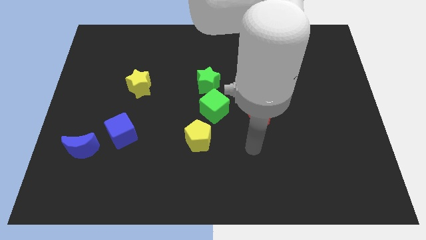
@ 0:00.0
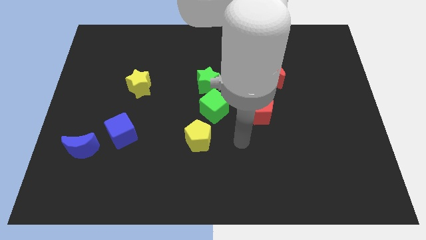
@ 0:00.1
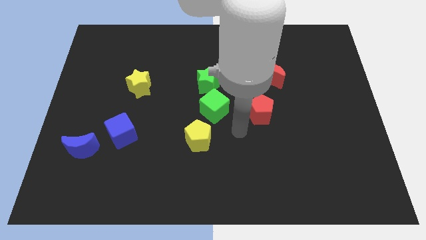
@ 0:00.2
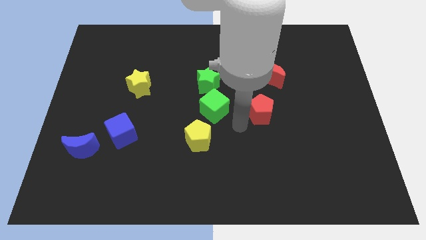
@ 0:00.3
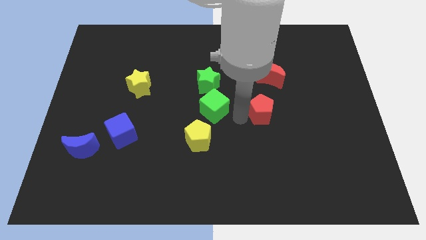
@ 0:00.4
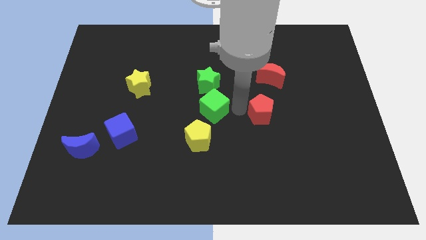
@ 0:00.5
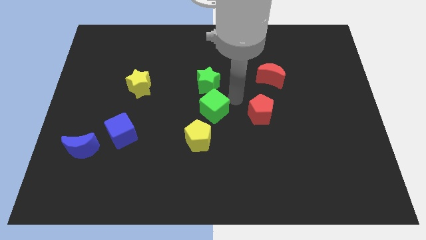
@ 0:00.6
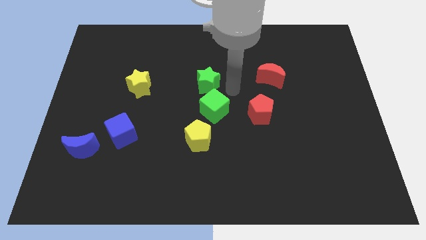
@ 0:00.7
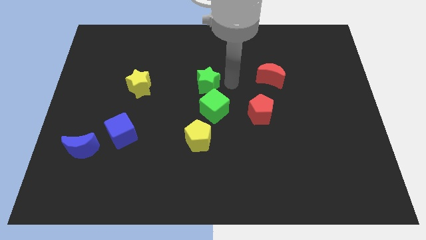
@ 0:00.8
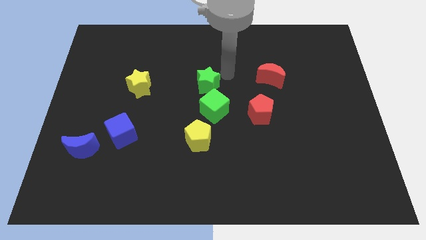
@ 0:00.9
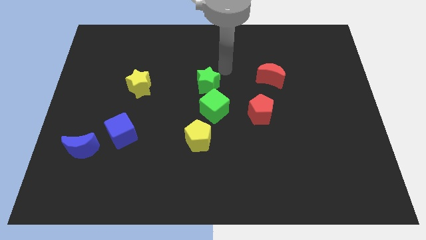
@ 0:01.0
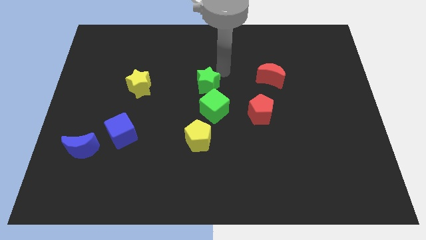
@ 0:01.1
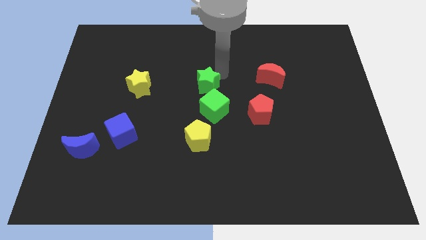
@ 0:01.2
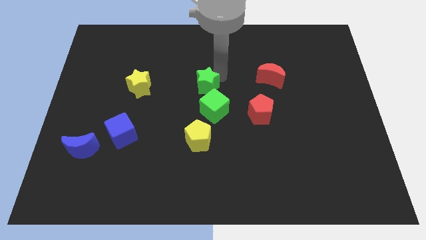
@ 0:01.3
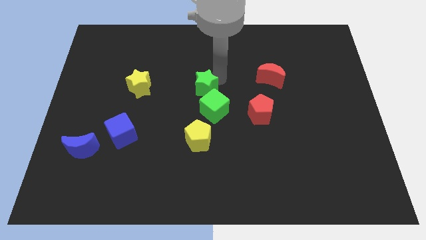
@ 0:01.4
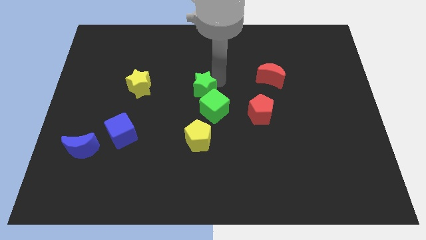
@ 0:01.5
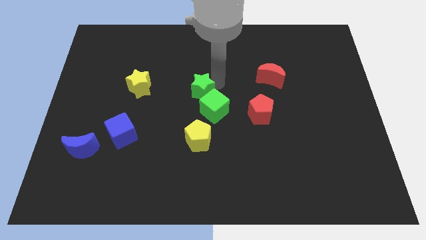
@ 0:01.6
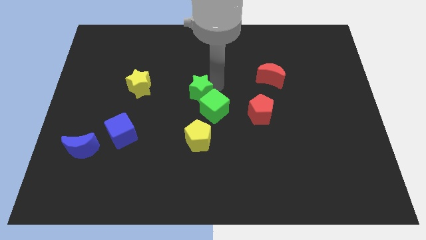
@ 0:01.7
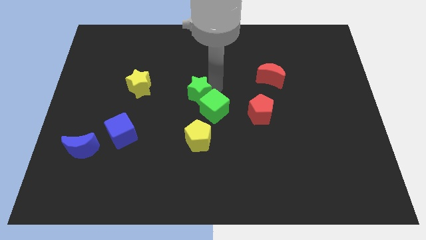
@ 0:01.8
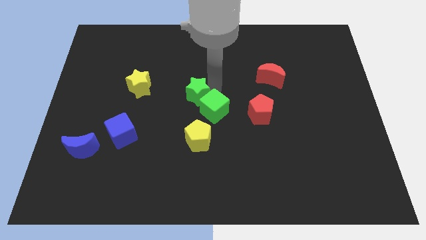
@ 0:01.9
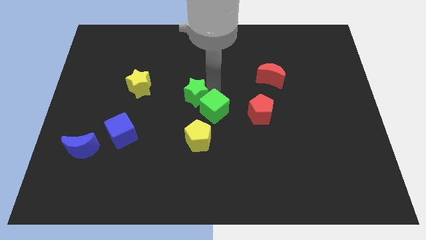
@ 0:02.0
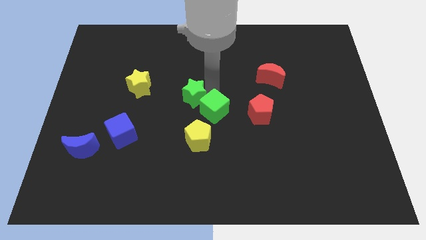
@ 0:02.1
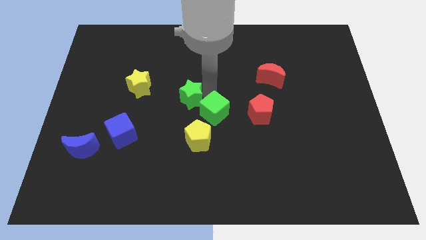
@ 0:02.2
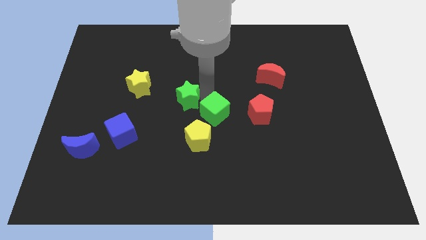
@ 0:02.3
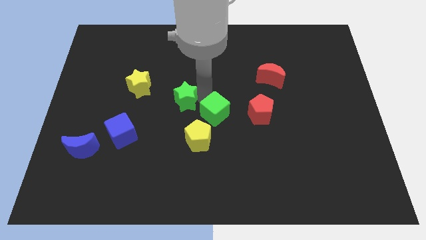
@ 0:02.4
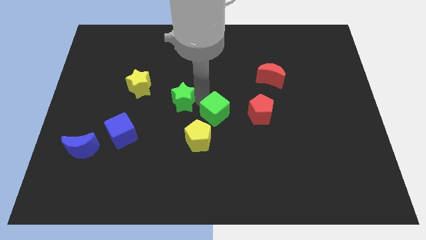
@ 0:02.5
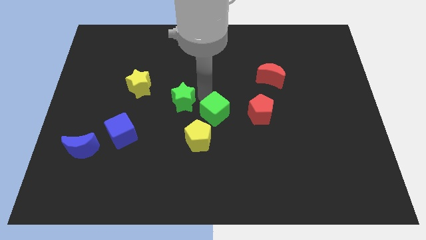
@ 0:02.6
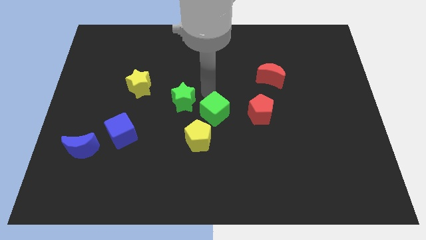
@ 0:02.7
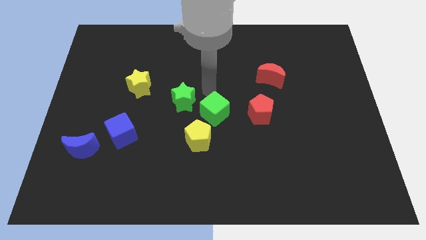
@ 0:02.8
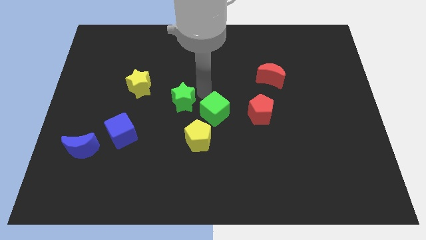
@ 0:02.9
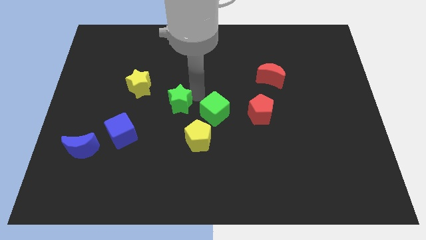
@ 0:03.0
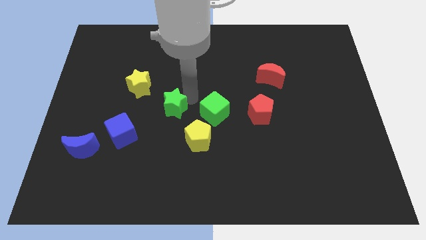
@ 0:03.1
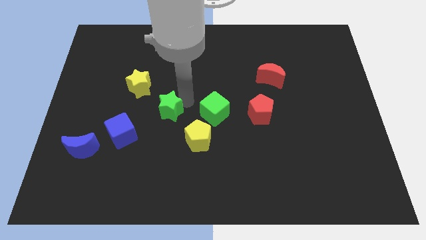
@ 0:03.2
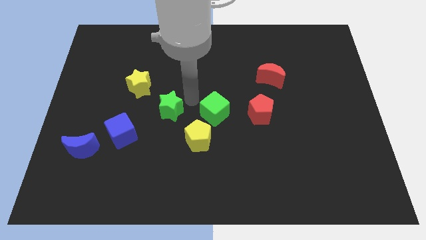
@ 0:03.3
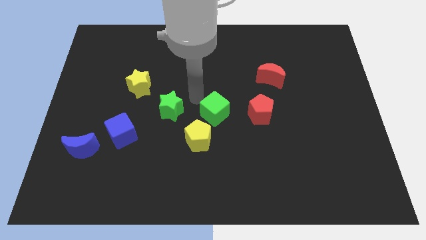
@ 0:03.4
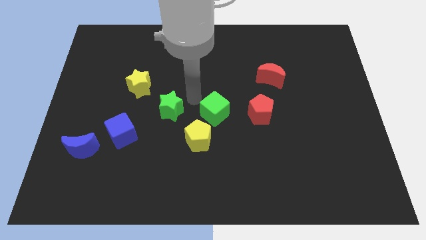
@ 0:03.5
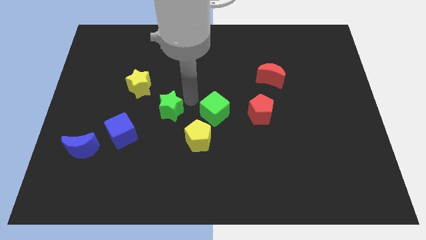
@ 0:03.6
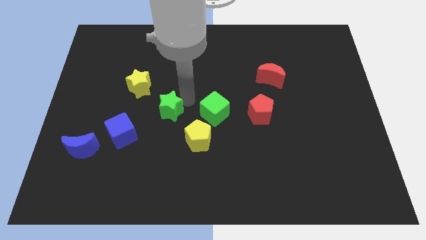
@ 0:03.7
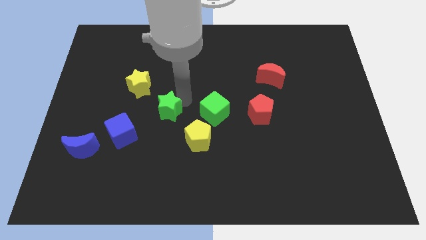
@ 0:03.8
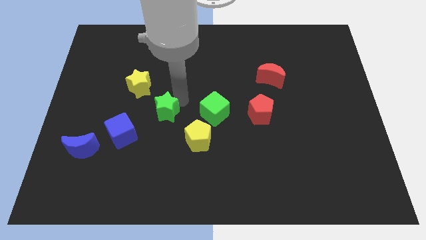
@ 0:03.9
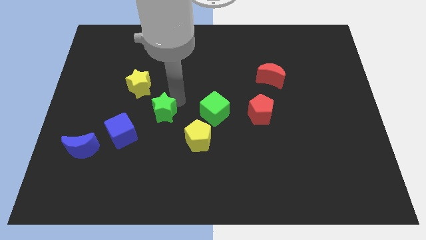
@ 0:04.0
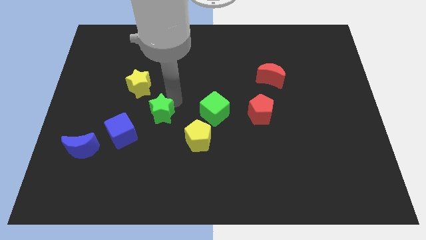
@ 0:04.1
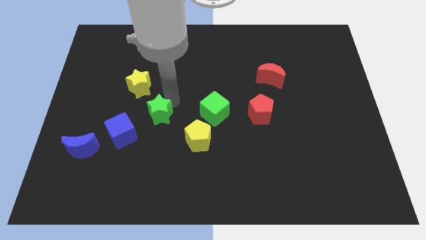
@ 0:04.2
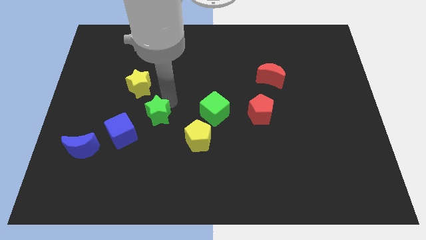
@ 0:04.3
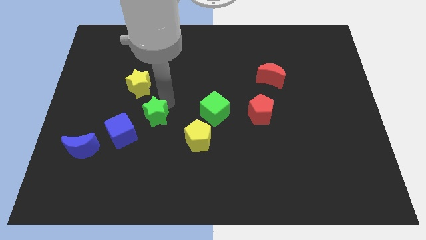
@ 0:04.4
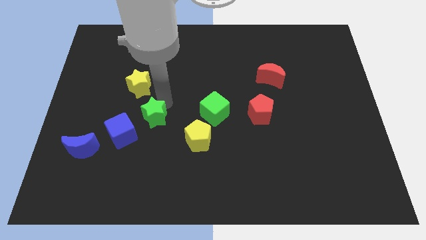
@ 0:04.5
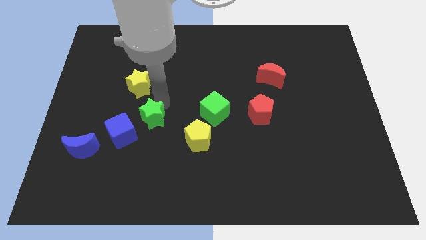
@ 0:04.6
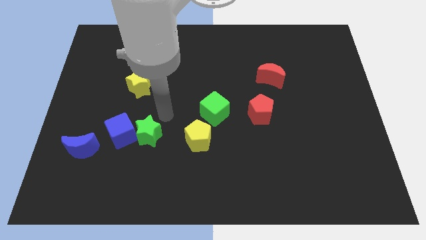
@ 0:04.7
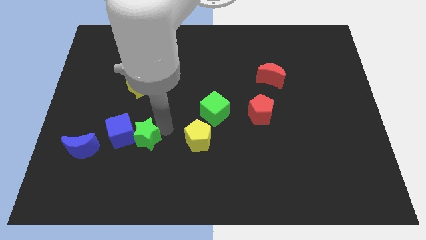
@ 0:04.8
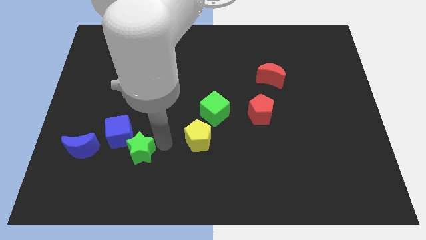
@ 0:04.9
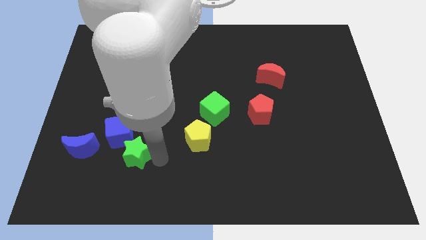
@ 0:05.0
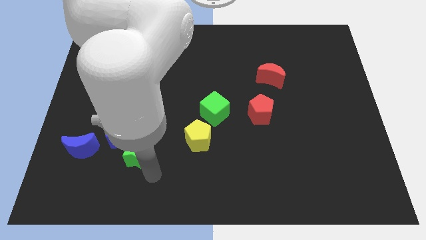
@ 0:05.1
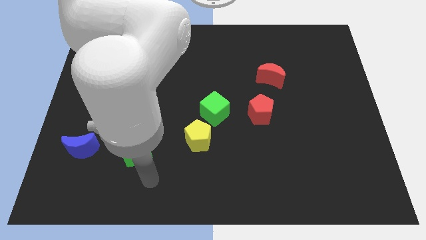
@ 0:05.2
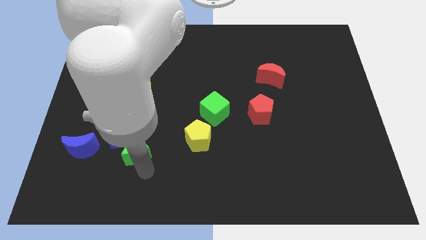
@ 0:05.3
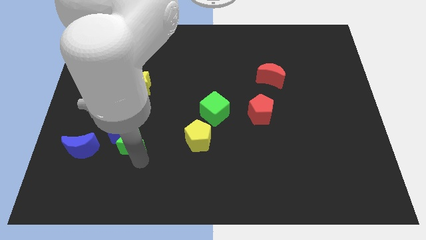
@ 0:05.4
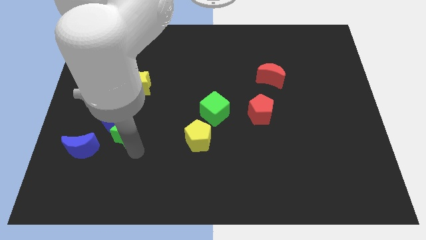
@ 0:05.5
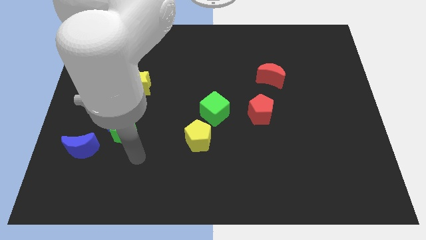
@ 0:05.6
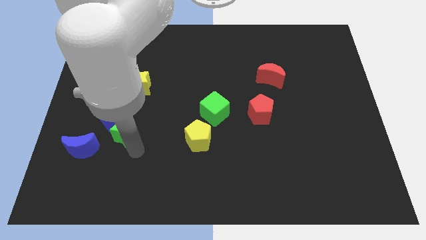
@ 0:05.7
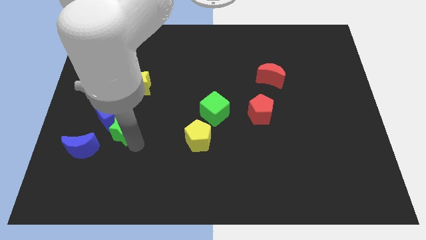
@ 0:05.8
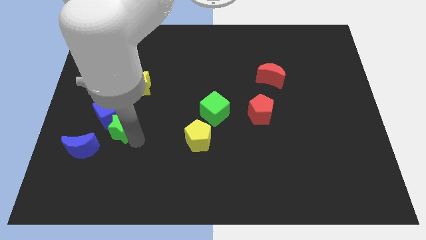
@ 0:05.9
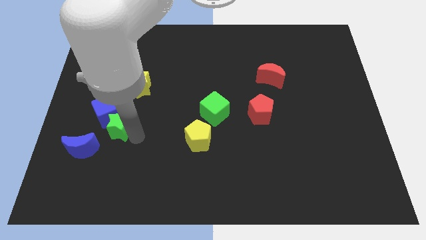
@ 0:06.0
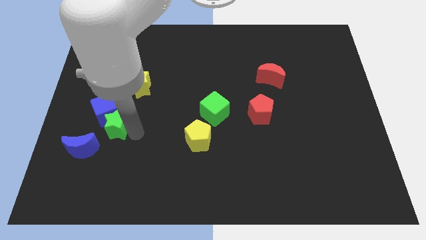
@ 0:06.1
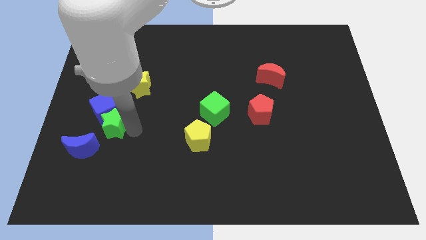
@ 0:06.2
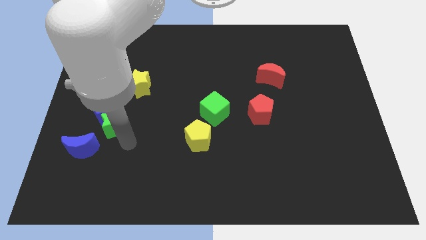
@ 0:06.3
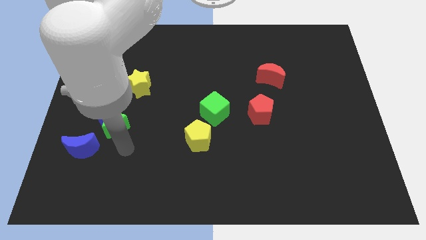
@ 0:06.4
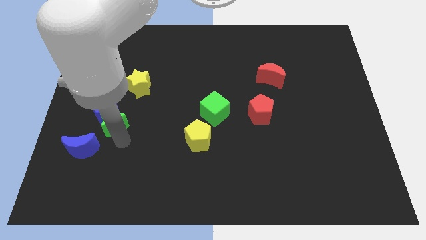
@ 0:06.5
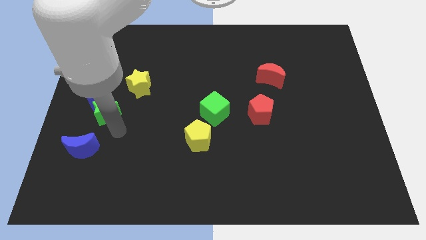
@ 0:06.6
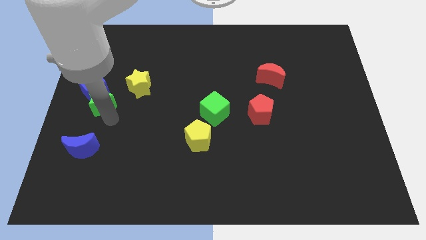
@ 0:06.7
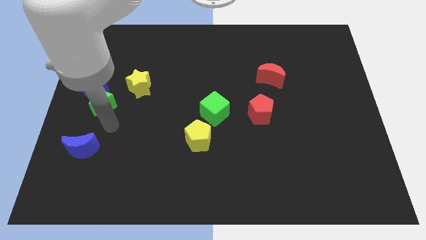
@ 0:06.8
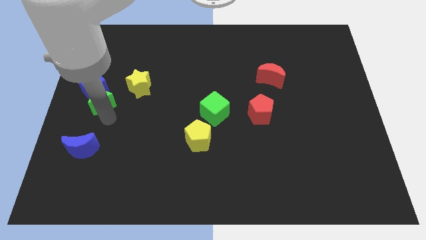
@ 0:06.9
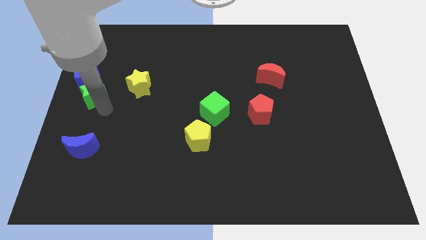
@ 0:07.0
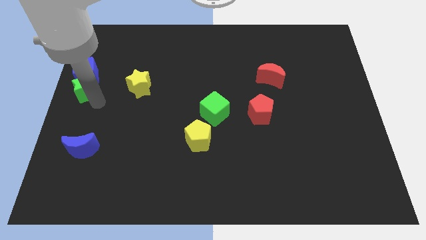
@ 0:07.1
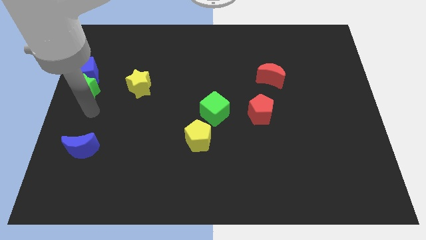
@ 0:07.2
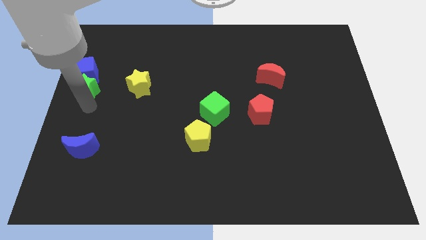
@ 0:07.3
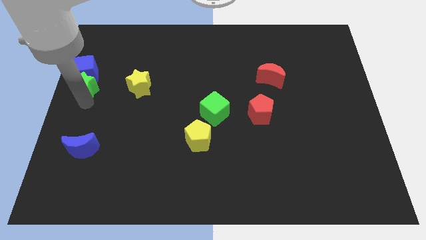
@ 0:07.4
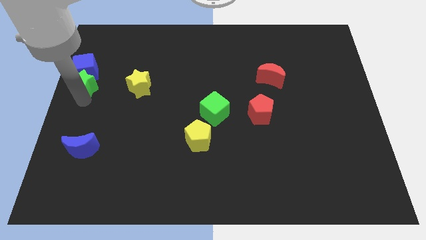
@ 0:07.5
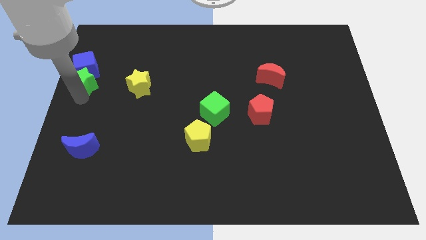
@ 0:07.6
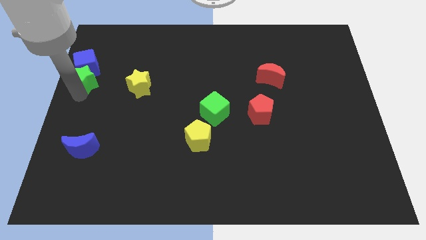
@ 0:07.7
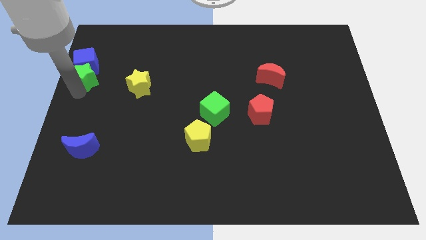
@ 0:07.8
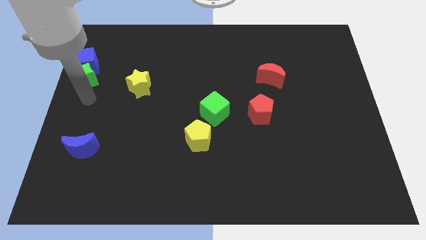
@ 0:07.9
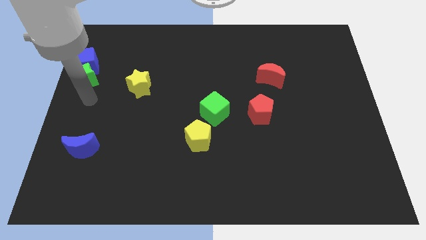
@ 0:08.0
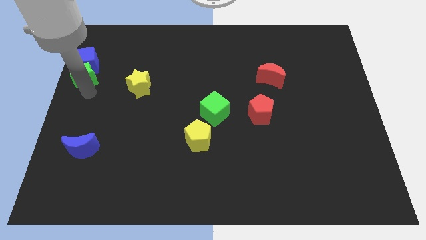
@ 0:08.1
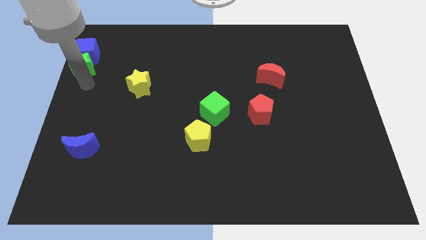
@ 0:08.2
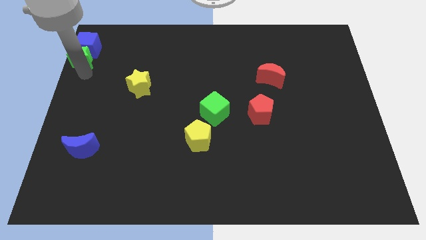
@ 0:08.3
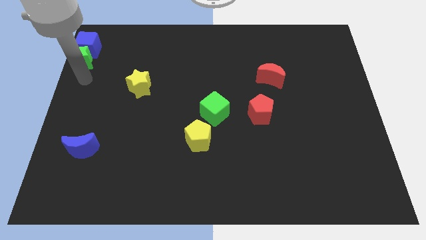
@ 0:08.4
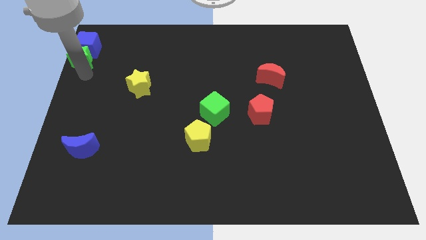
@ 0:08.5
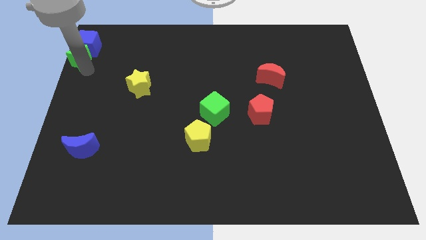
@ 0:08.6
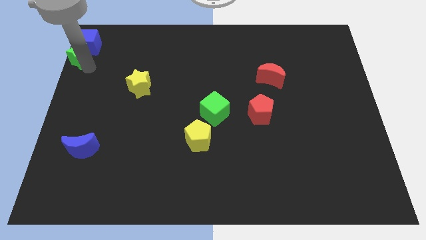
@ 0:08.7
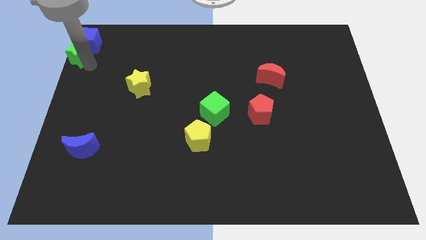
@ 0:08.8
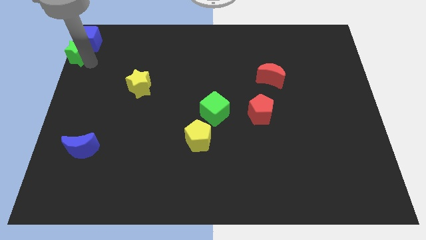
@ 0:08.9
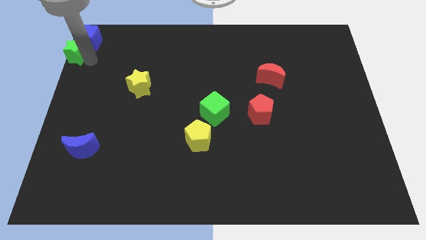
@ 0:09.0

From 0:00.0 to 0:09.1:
slide the green star to the top left of the board
